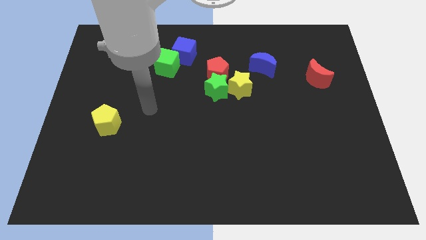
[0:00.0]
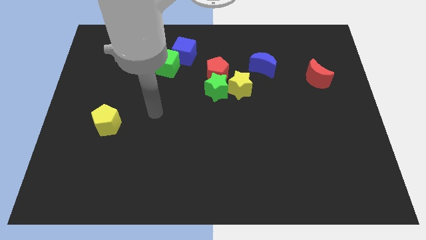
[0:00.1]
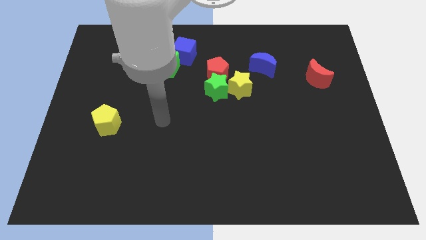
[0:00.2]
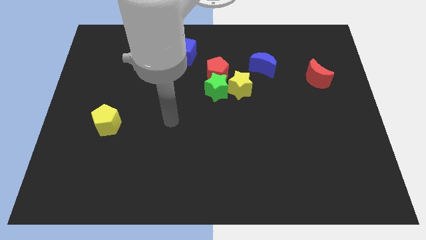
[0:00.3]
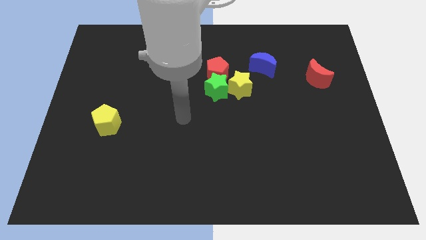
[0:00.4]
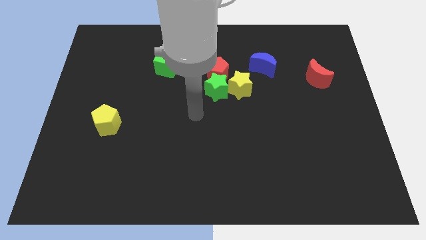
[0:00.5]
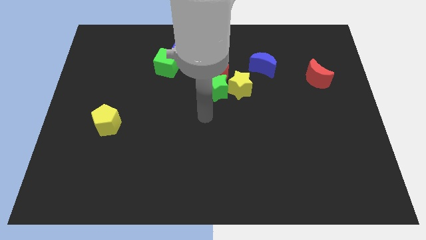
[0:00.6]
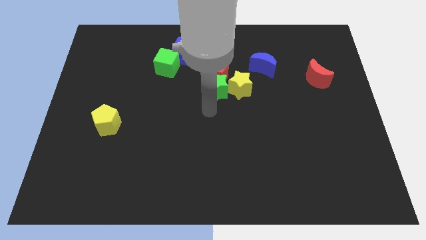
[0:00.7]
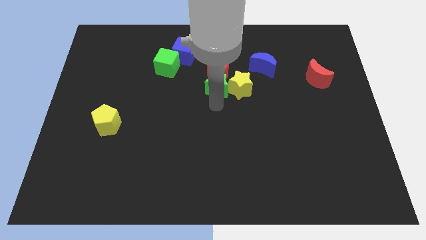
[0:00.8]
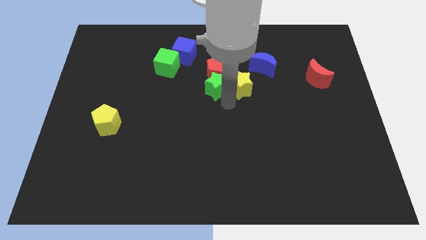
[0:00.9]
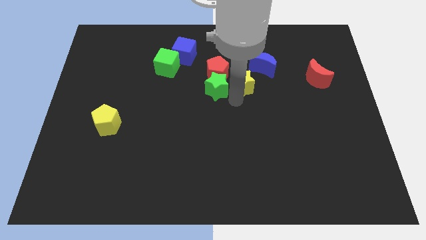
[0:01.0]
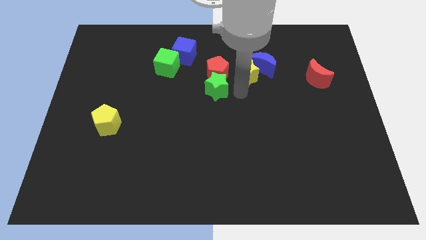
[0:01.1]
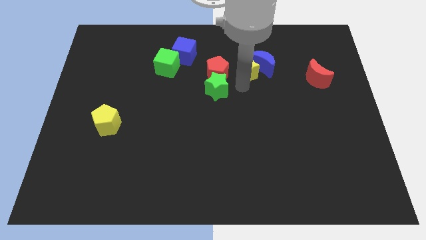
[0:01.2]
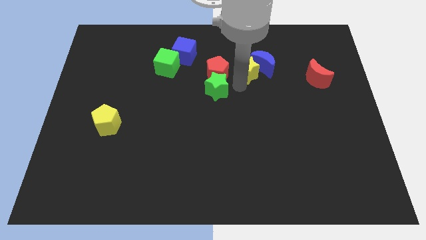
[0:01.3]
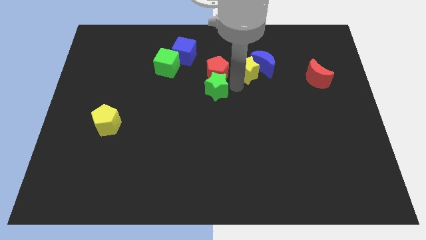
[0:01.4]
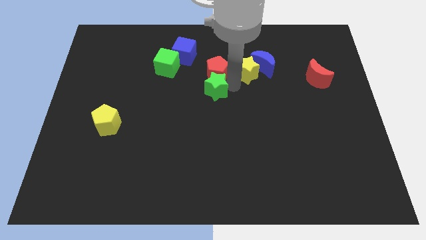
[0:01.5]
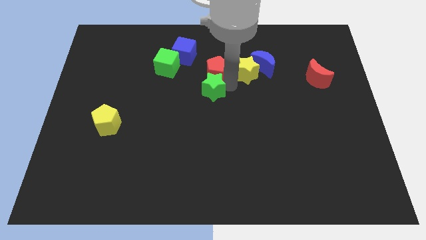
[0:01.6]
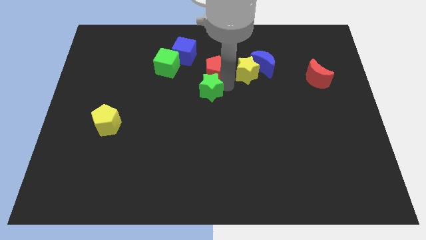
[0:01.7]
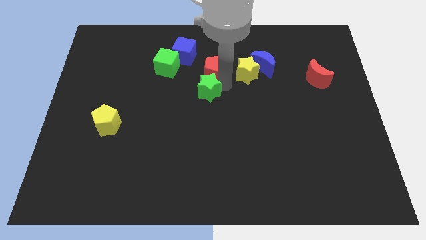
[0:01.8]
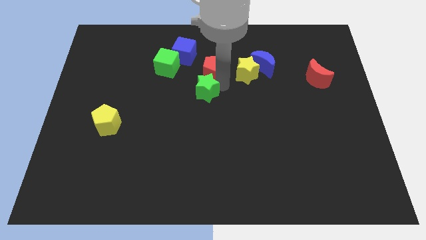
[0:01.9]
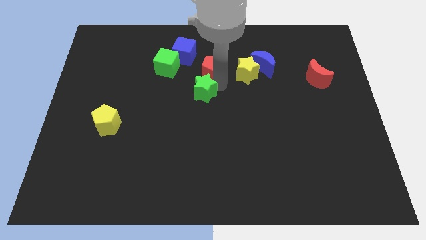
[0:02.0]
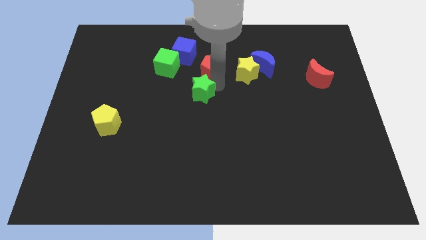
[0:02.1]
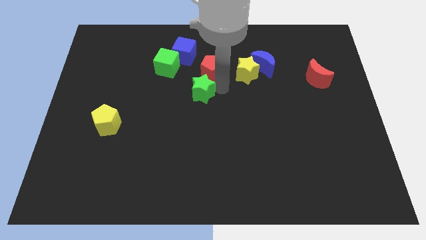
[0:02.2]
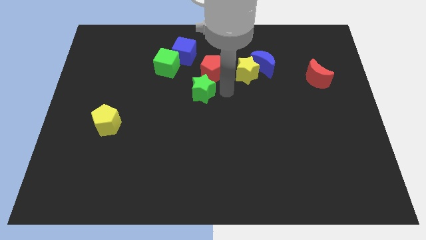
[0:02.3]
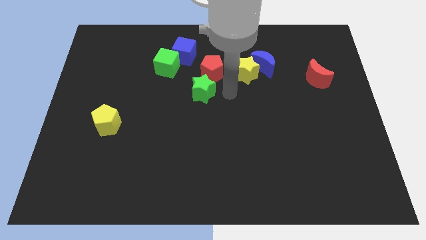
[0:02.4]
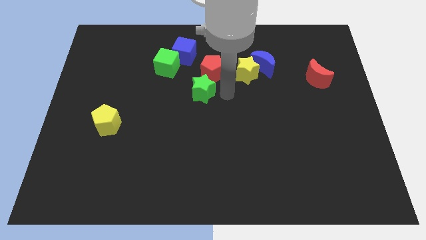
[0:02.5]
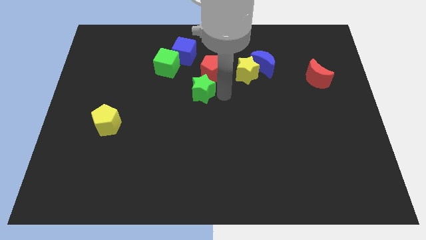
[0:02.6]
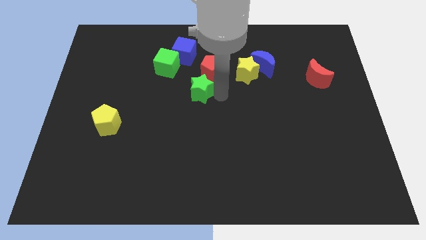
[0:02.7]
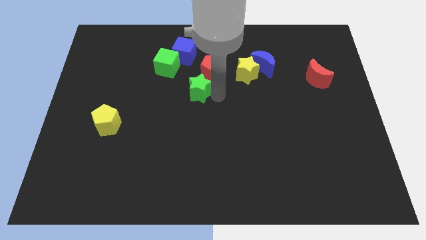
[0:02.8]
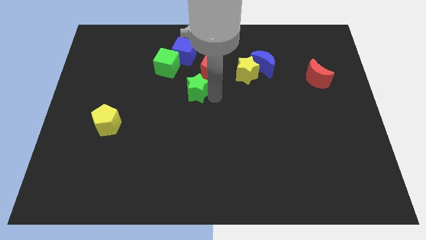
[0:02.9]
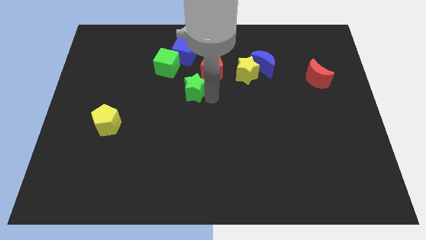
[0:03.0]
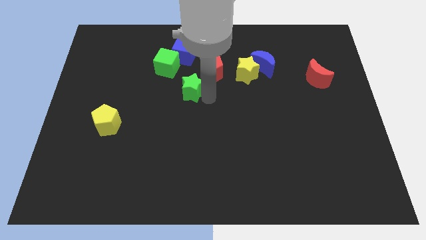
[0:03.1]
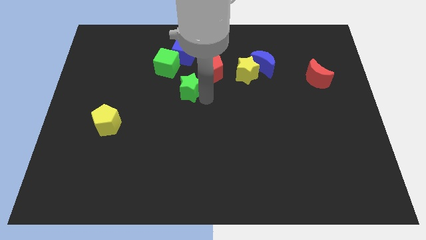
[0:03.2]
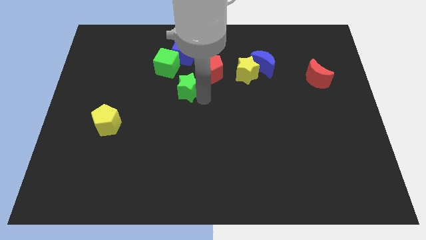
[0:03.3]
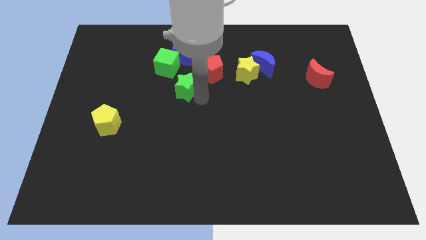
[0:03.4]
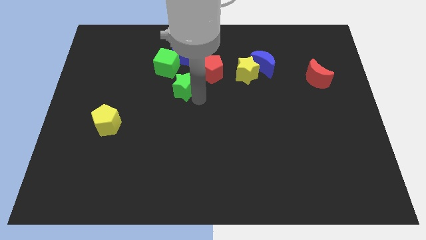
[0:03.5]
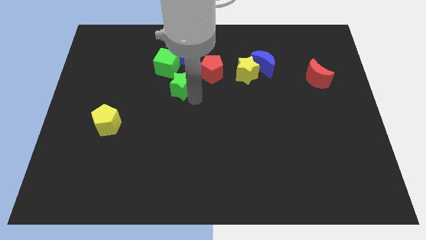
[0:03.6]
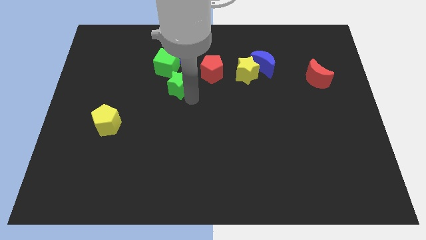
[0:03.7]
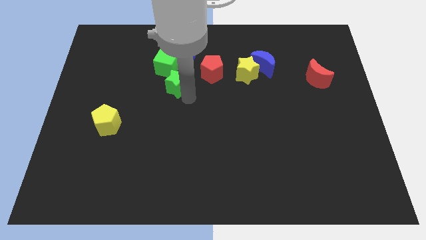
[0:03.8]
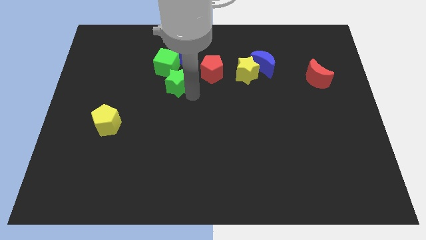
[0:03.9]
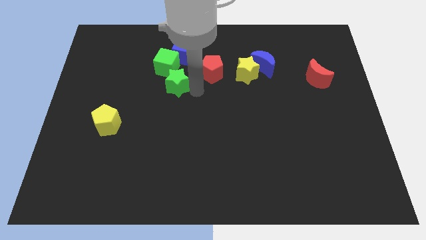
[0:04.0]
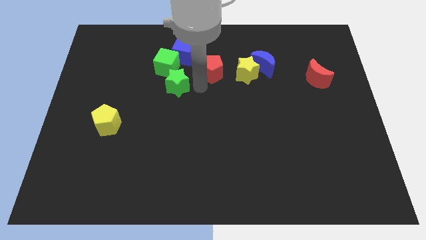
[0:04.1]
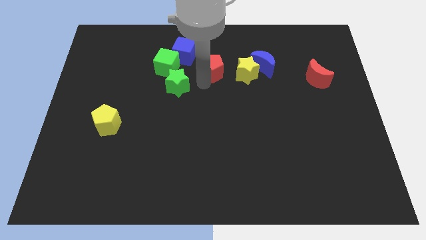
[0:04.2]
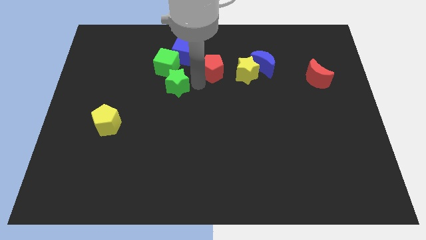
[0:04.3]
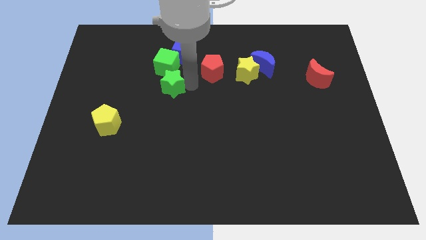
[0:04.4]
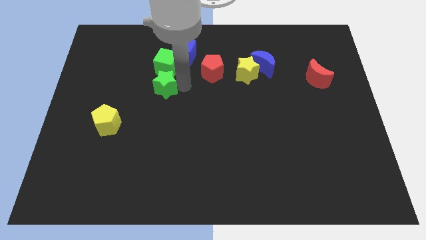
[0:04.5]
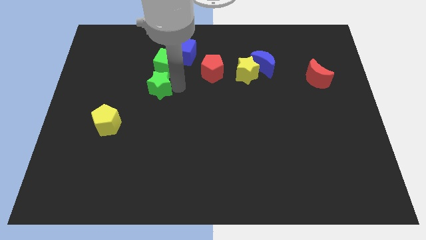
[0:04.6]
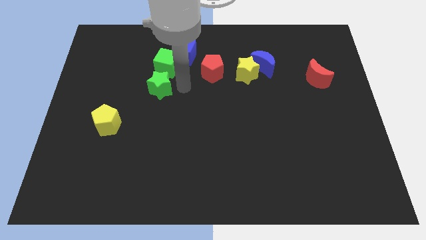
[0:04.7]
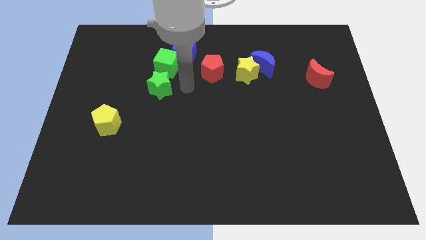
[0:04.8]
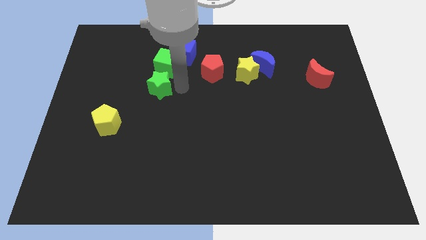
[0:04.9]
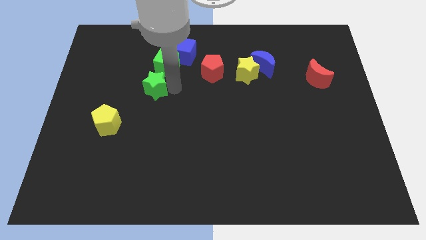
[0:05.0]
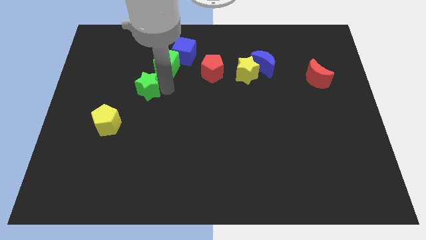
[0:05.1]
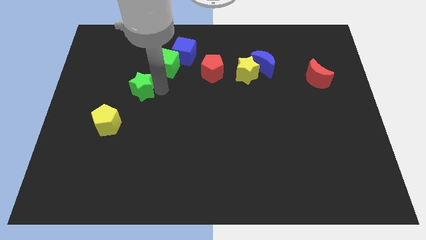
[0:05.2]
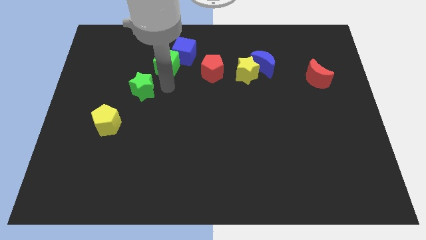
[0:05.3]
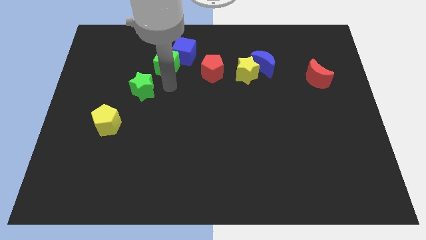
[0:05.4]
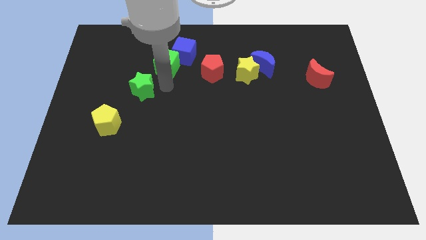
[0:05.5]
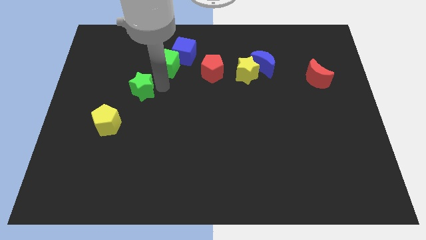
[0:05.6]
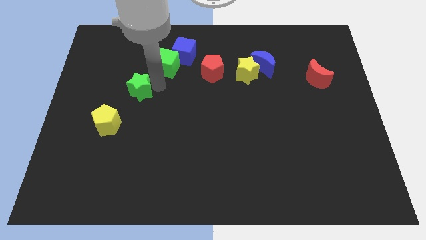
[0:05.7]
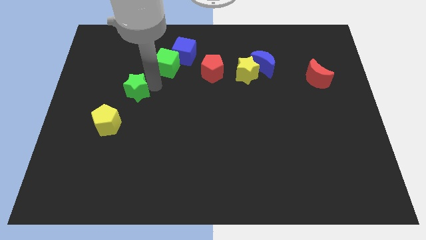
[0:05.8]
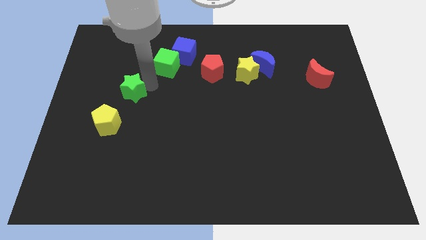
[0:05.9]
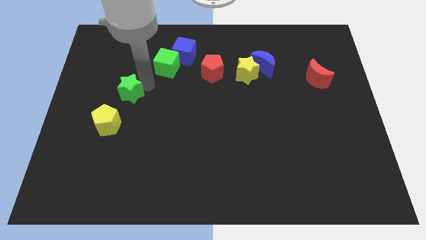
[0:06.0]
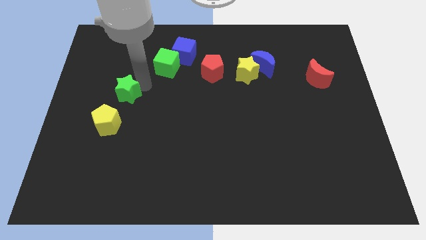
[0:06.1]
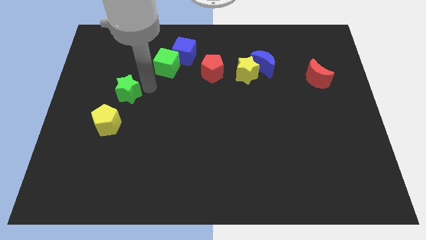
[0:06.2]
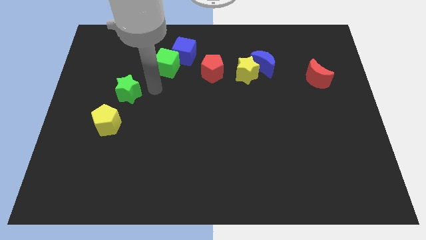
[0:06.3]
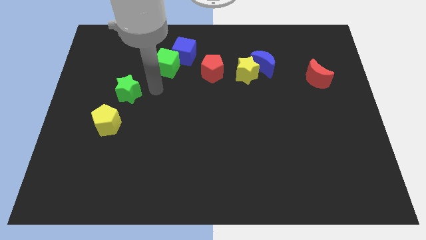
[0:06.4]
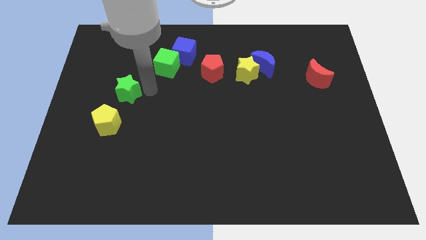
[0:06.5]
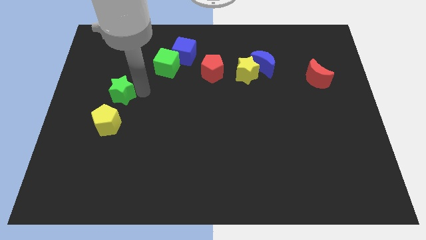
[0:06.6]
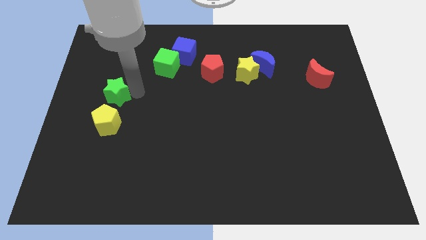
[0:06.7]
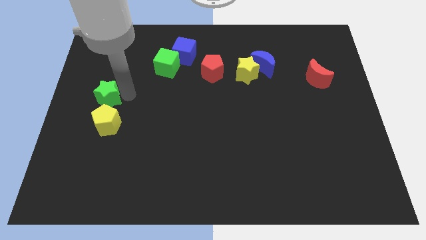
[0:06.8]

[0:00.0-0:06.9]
slide the green star to the left side
